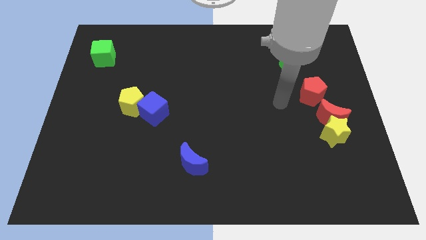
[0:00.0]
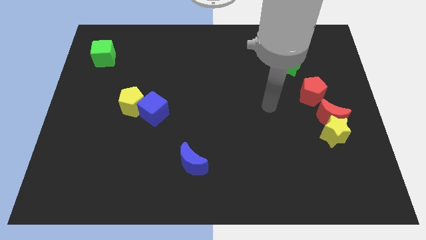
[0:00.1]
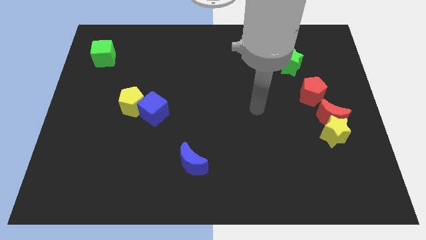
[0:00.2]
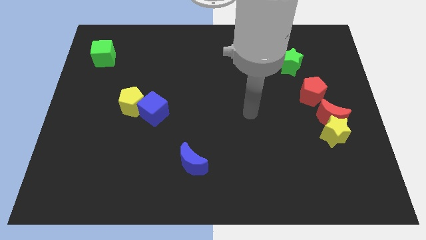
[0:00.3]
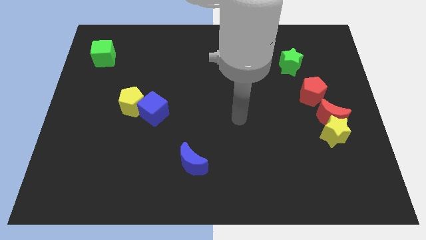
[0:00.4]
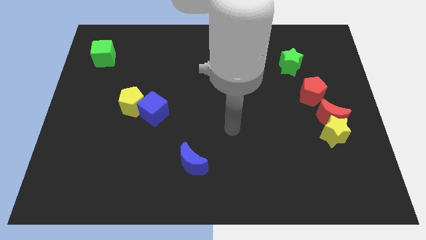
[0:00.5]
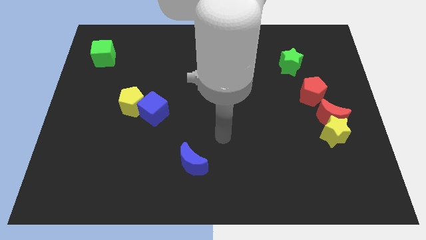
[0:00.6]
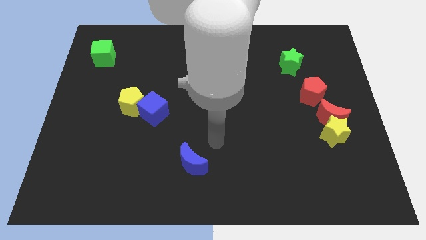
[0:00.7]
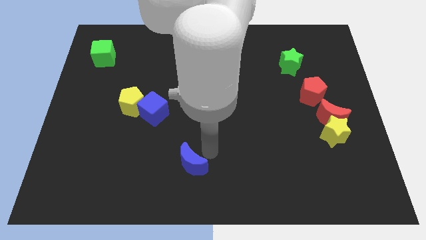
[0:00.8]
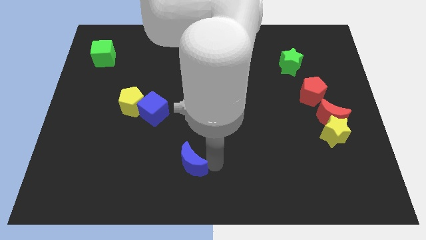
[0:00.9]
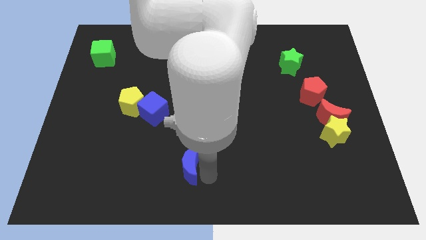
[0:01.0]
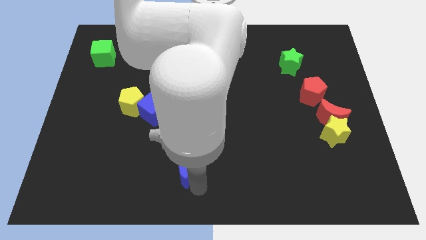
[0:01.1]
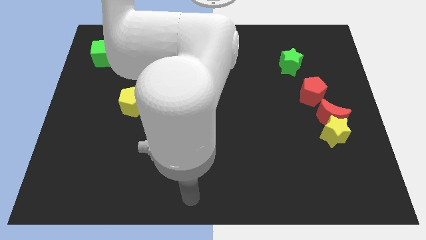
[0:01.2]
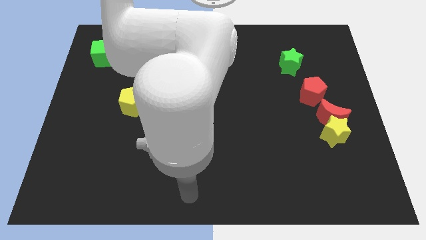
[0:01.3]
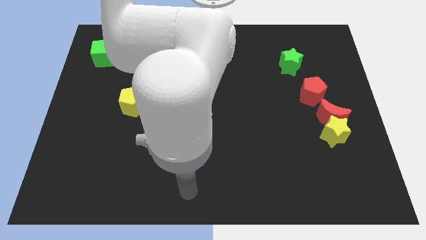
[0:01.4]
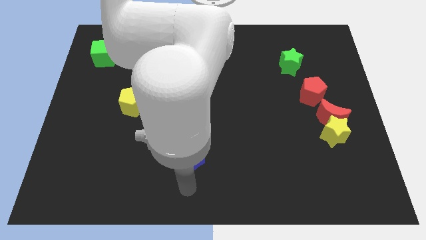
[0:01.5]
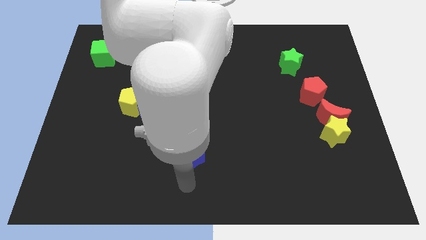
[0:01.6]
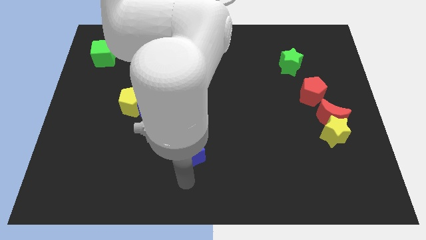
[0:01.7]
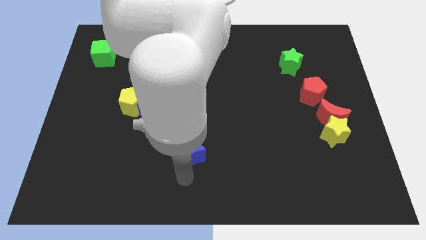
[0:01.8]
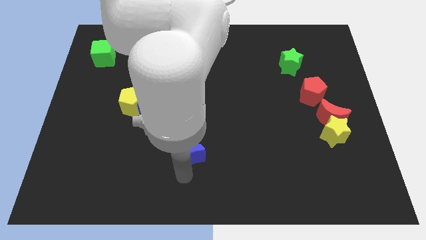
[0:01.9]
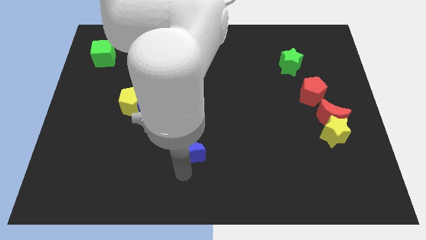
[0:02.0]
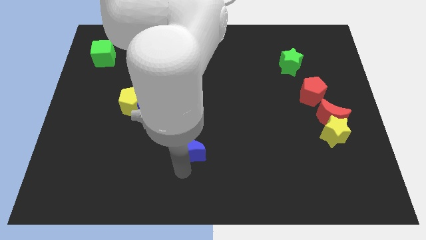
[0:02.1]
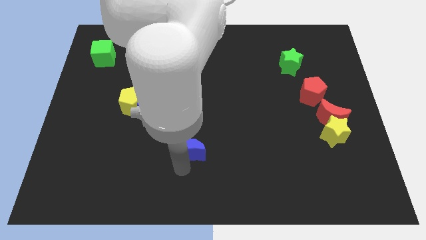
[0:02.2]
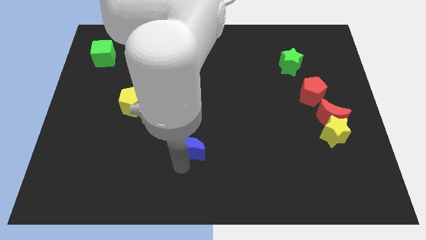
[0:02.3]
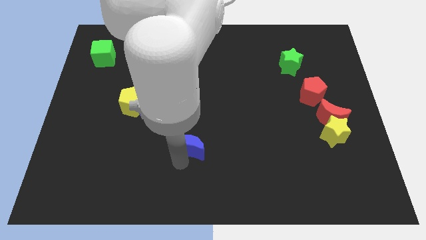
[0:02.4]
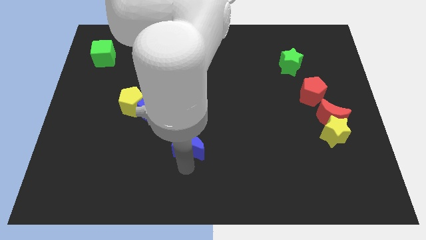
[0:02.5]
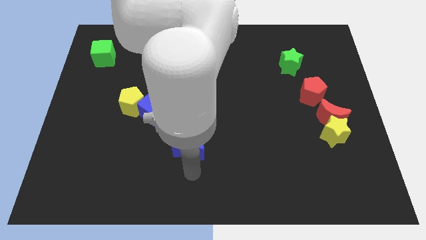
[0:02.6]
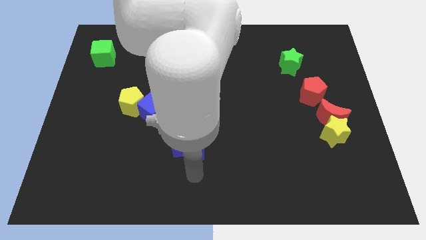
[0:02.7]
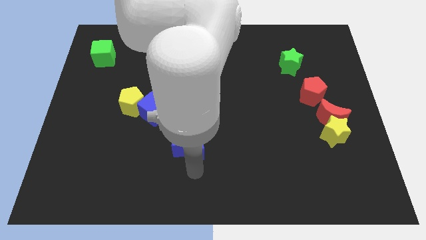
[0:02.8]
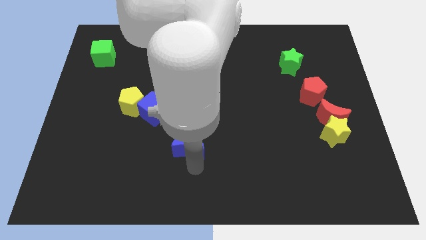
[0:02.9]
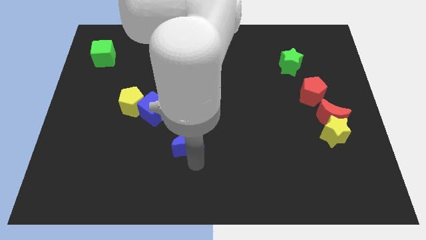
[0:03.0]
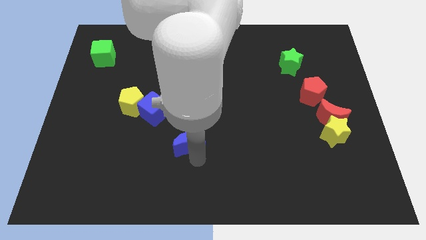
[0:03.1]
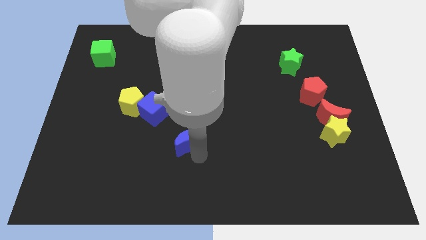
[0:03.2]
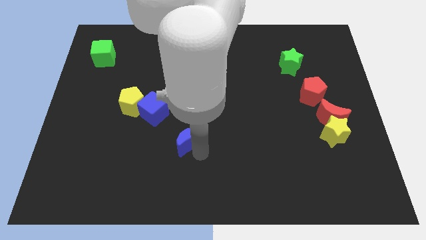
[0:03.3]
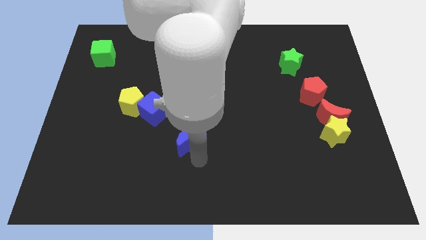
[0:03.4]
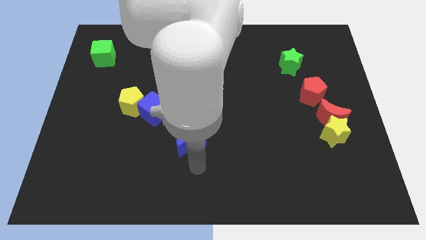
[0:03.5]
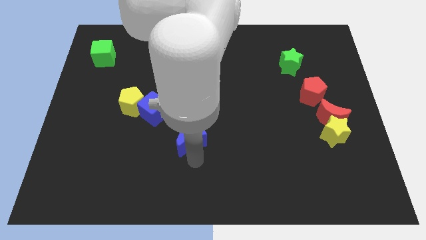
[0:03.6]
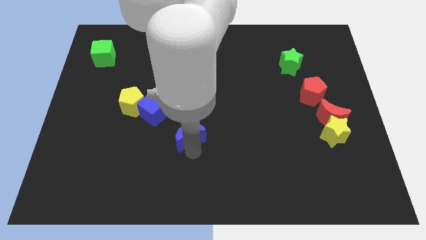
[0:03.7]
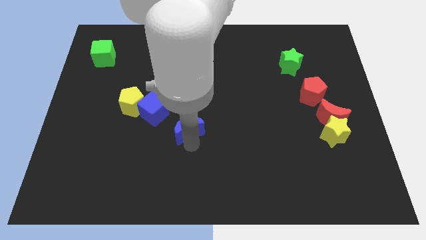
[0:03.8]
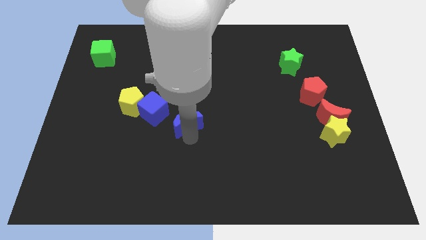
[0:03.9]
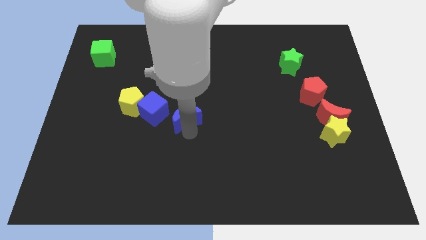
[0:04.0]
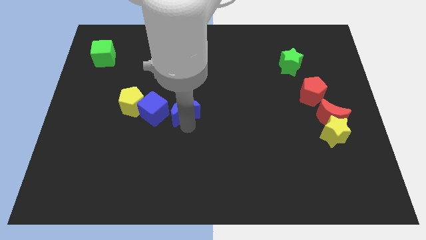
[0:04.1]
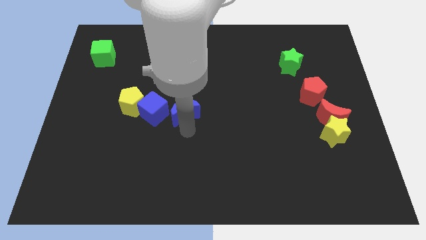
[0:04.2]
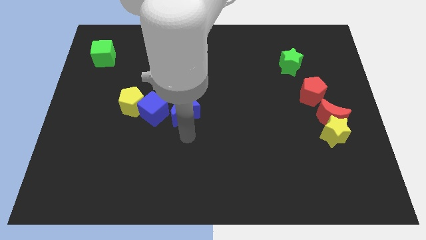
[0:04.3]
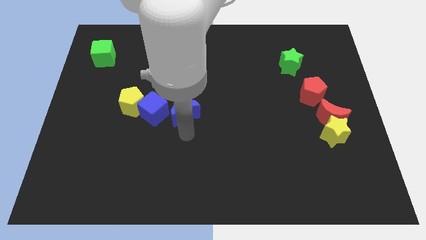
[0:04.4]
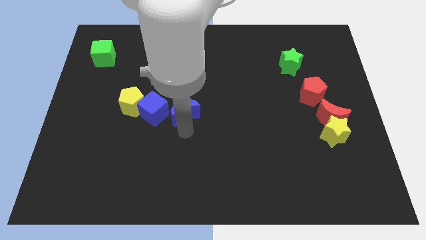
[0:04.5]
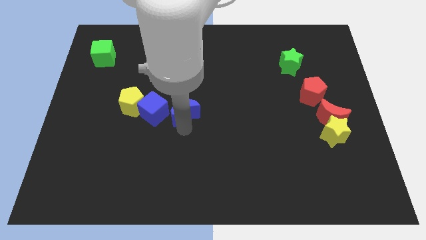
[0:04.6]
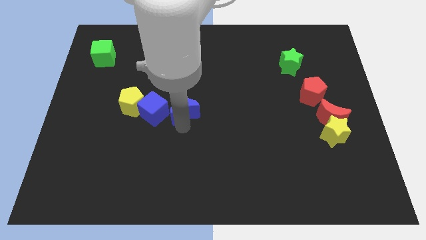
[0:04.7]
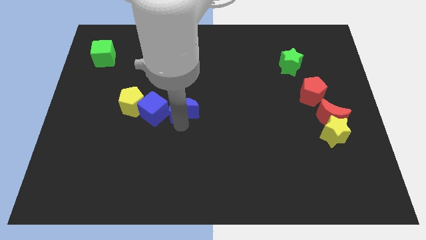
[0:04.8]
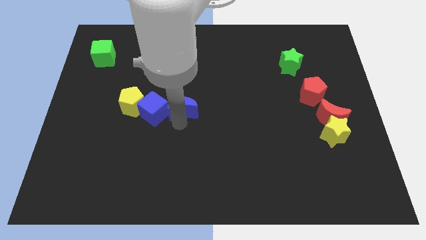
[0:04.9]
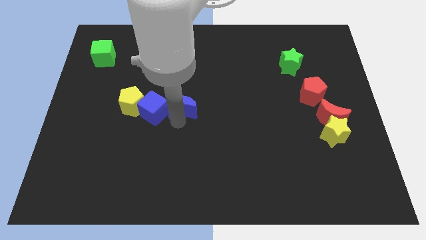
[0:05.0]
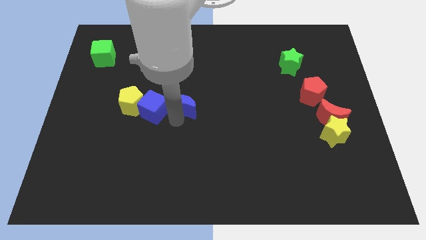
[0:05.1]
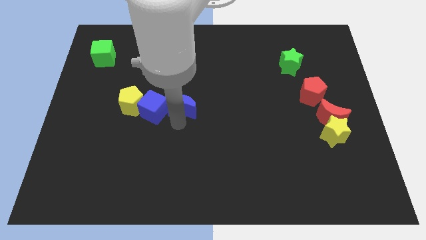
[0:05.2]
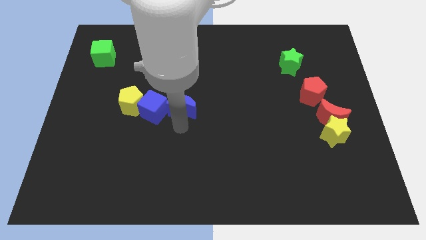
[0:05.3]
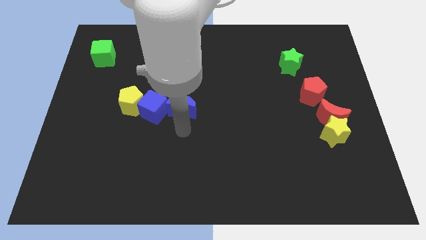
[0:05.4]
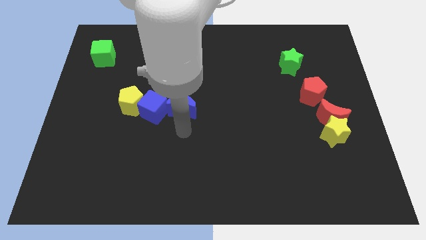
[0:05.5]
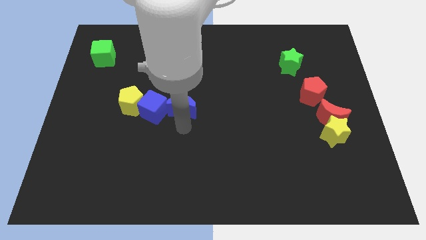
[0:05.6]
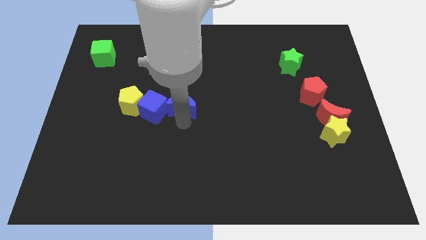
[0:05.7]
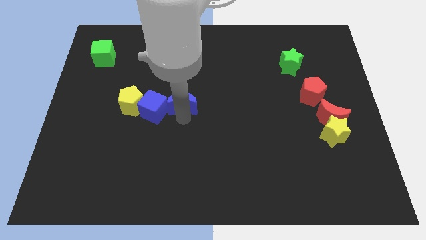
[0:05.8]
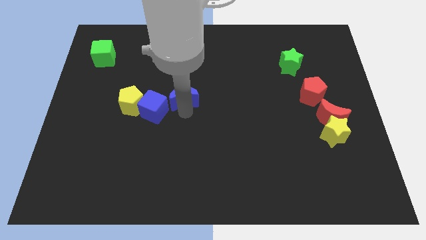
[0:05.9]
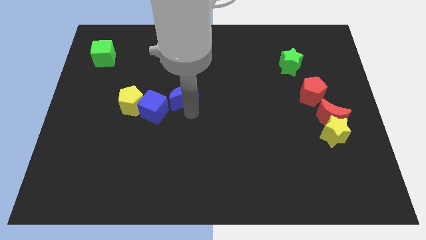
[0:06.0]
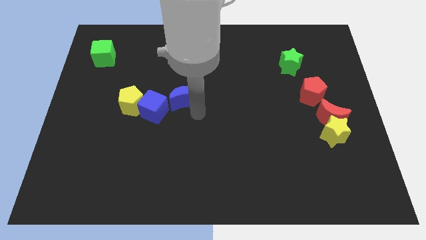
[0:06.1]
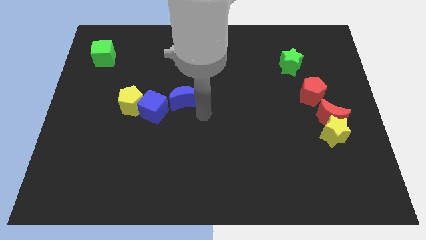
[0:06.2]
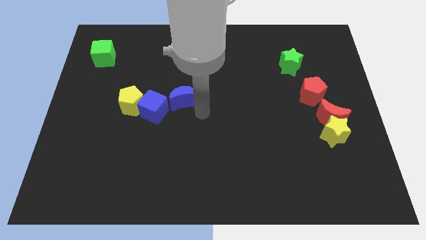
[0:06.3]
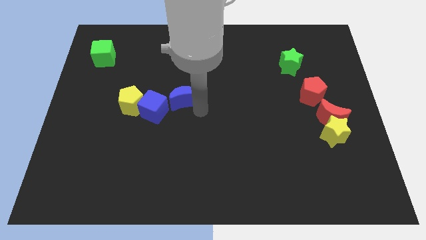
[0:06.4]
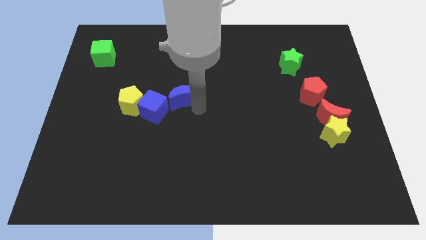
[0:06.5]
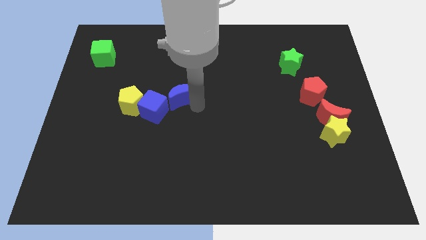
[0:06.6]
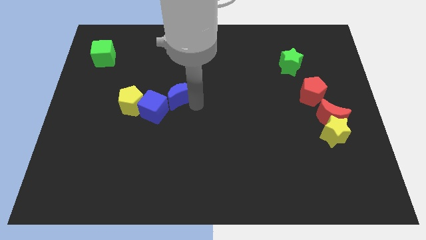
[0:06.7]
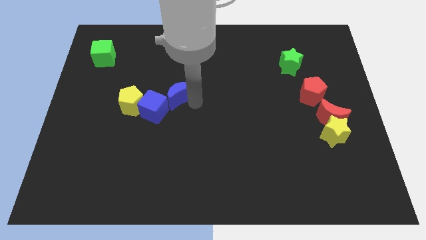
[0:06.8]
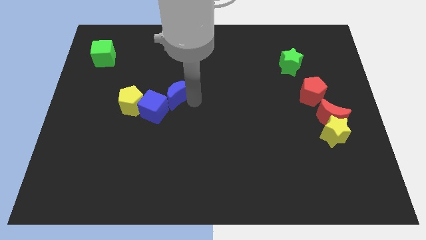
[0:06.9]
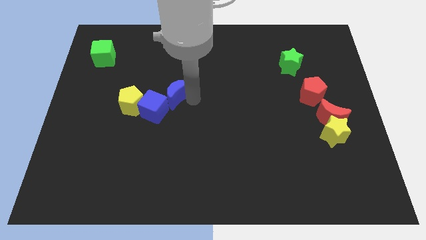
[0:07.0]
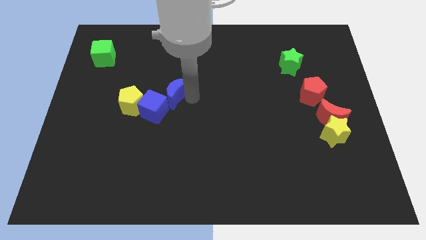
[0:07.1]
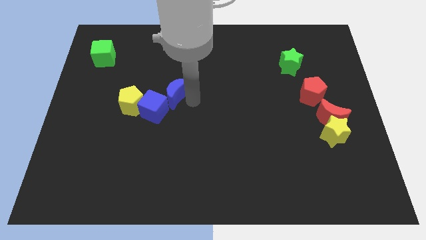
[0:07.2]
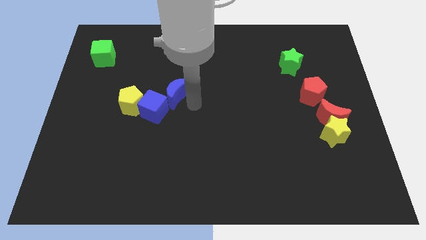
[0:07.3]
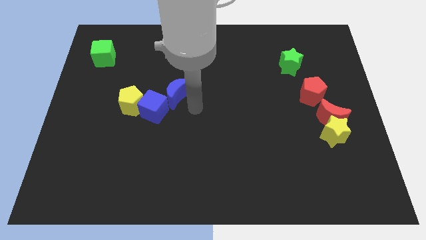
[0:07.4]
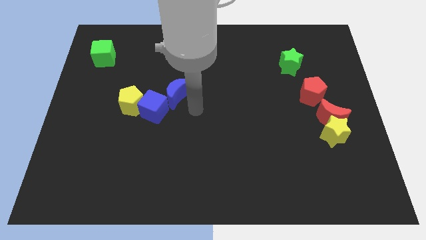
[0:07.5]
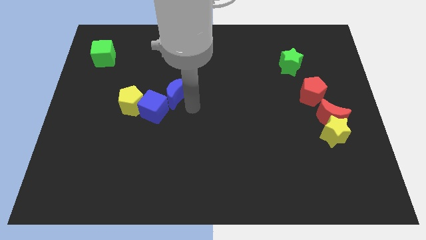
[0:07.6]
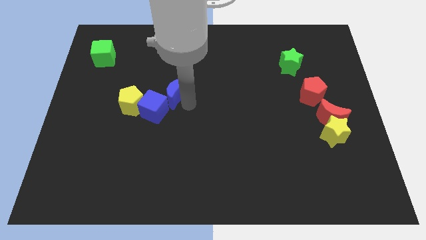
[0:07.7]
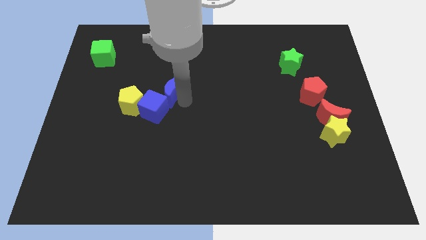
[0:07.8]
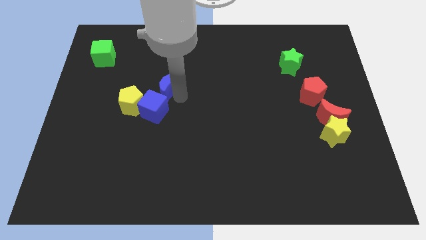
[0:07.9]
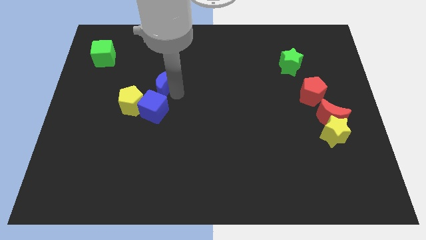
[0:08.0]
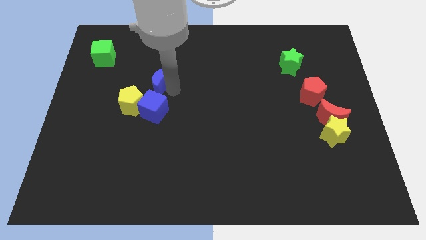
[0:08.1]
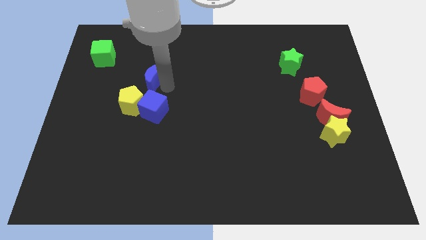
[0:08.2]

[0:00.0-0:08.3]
put the blue moon above the yellow pentagon
